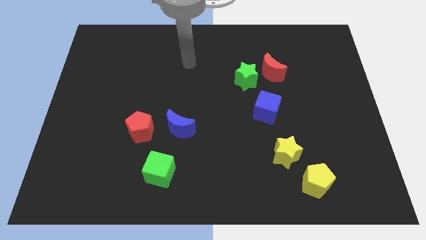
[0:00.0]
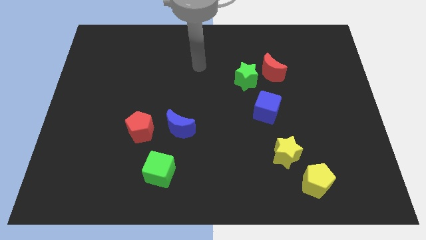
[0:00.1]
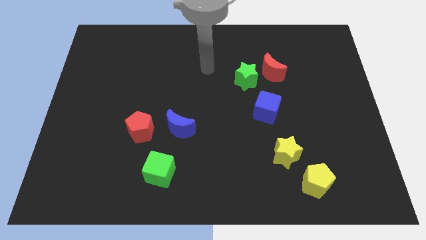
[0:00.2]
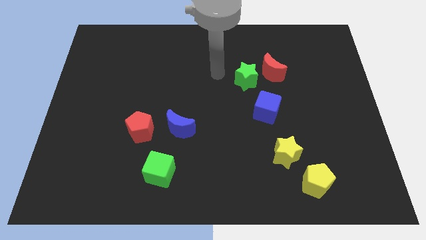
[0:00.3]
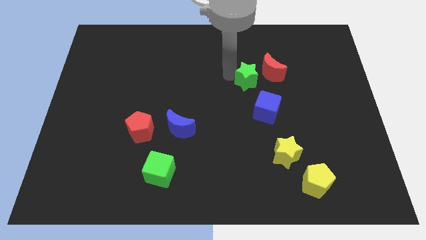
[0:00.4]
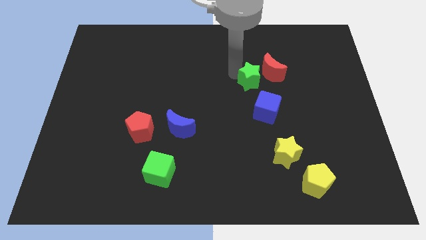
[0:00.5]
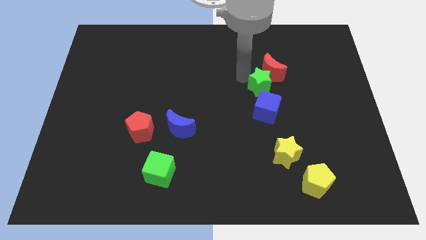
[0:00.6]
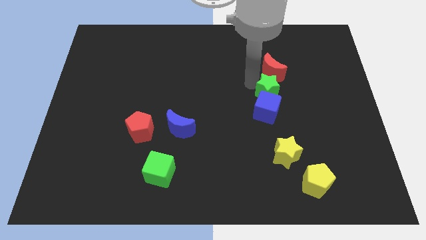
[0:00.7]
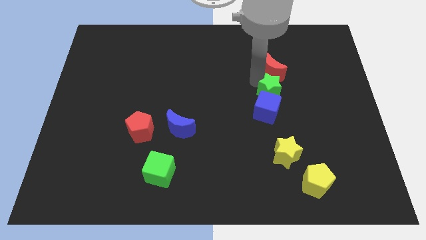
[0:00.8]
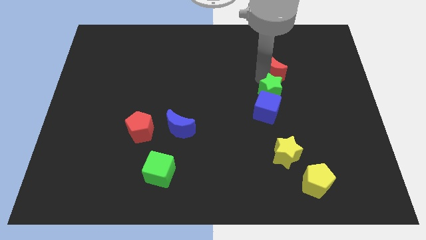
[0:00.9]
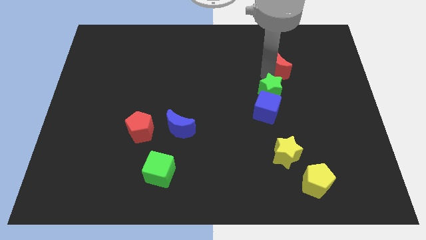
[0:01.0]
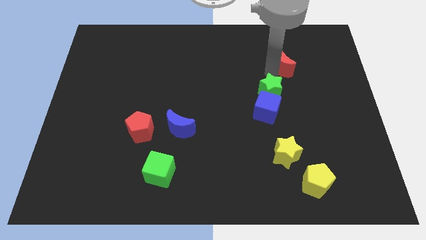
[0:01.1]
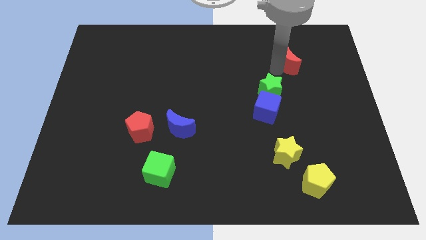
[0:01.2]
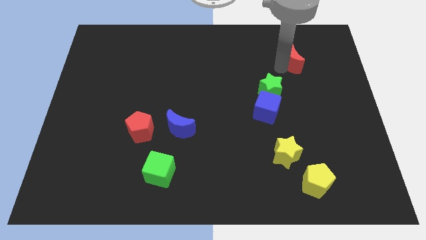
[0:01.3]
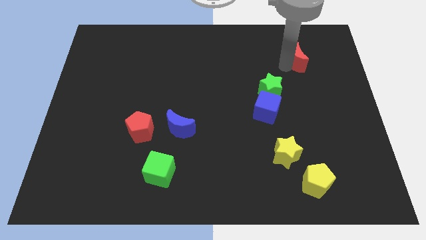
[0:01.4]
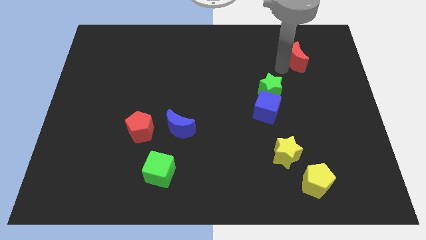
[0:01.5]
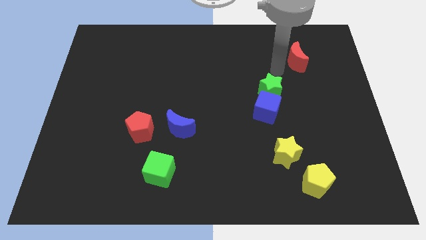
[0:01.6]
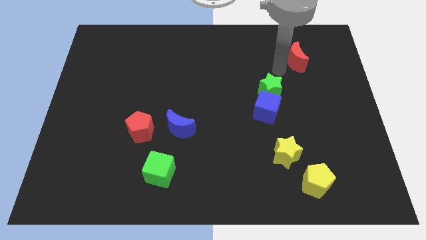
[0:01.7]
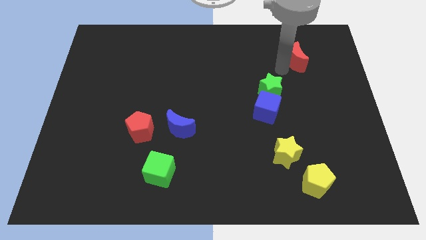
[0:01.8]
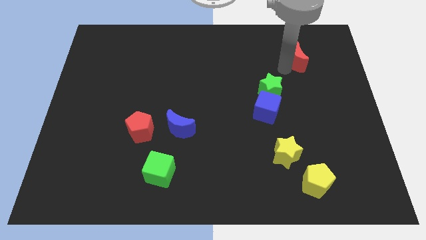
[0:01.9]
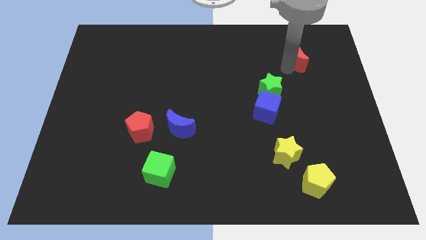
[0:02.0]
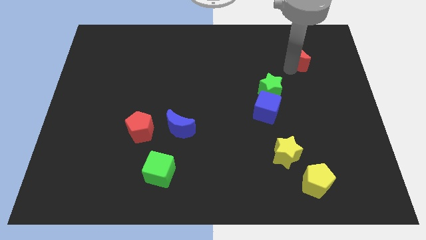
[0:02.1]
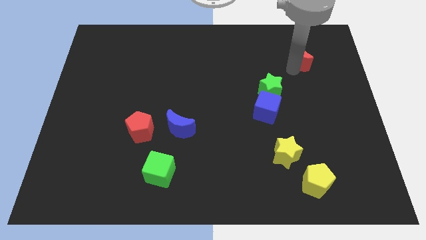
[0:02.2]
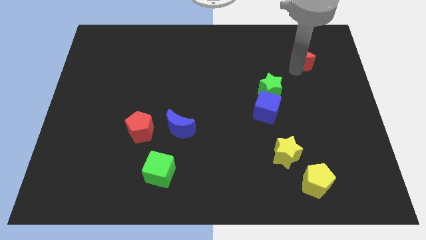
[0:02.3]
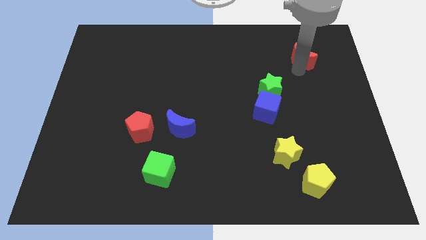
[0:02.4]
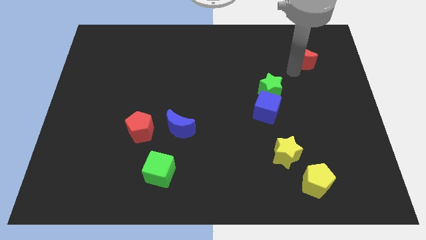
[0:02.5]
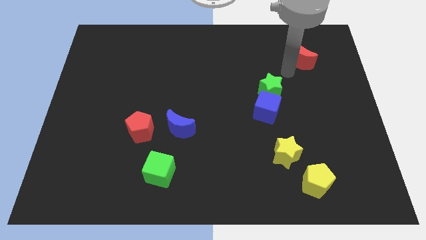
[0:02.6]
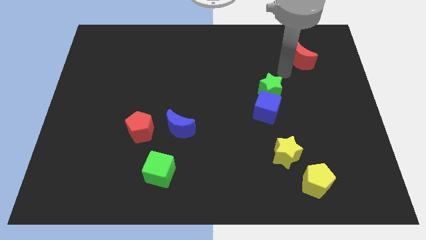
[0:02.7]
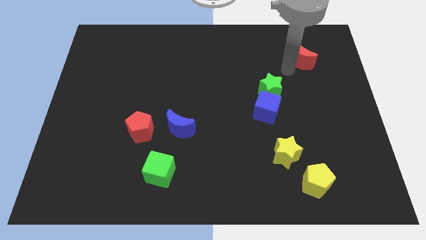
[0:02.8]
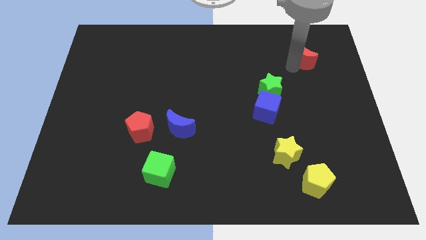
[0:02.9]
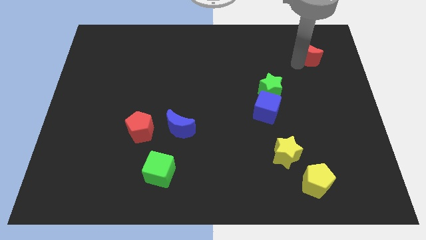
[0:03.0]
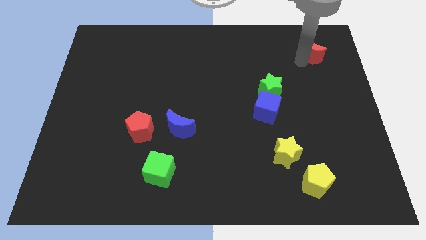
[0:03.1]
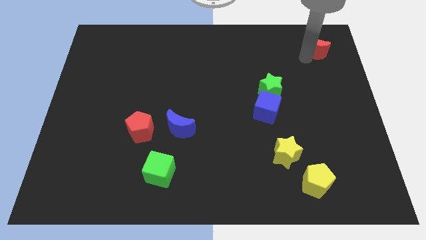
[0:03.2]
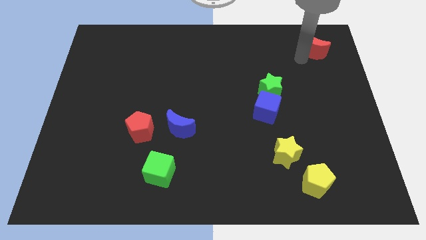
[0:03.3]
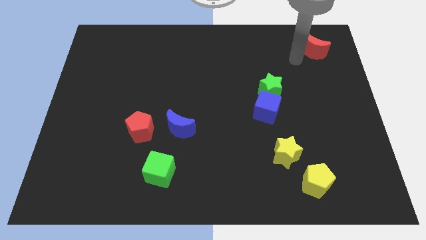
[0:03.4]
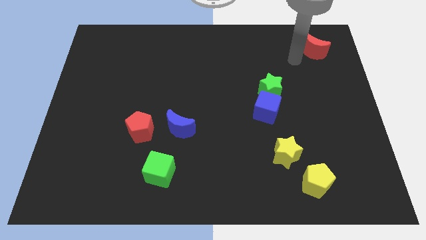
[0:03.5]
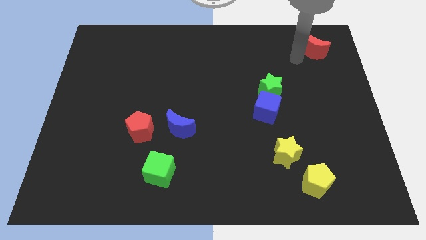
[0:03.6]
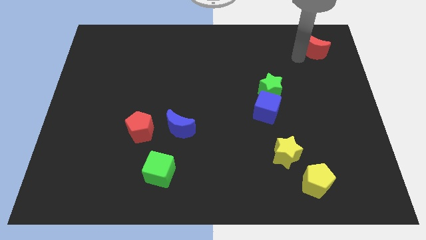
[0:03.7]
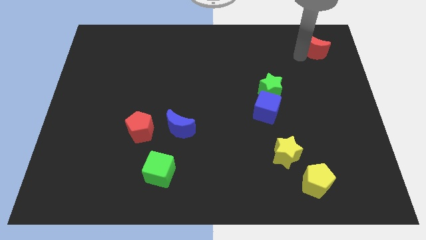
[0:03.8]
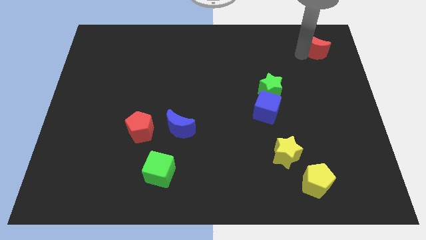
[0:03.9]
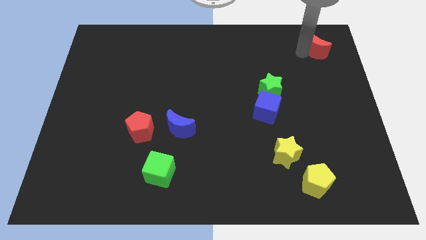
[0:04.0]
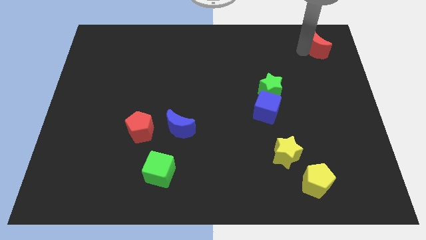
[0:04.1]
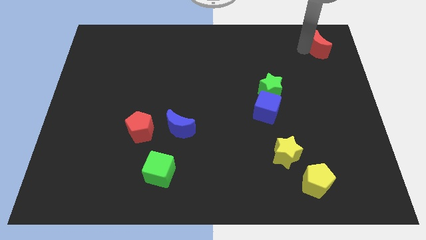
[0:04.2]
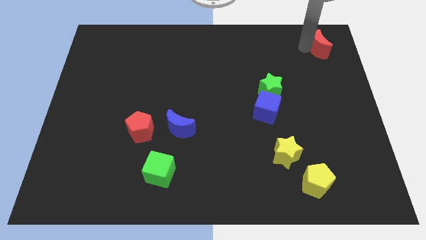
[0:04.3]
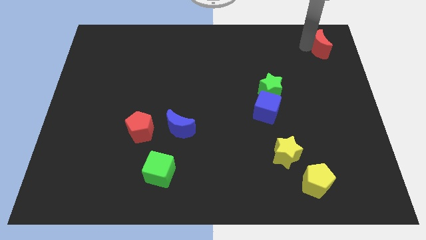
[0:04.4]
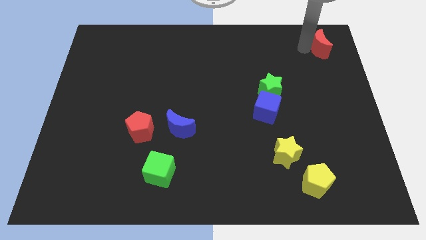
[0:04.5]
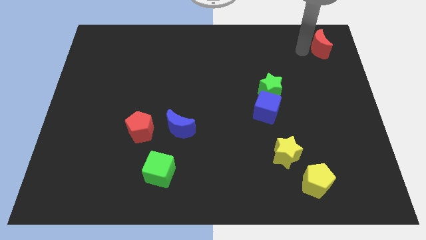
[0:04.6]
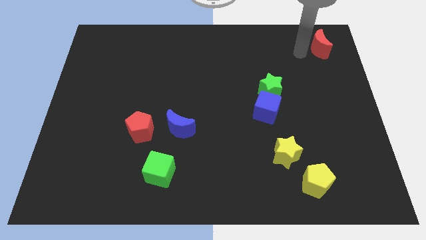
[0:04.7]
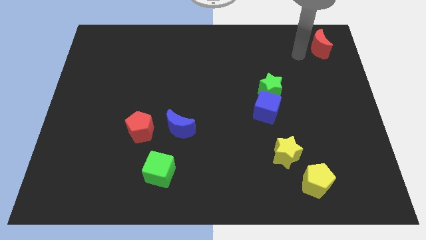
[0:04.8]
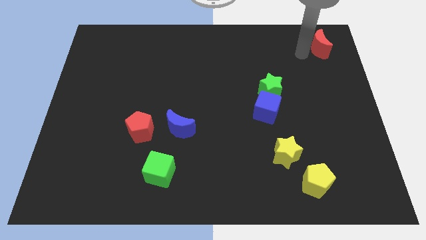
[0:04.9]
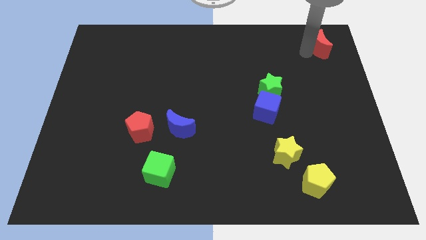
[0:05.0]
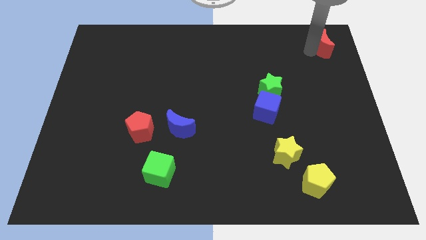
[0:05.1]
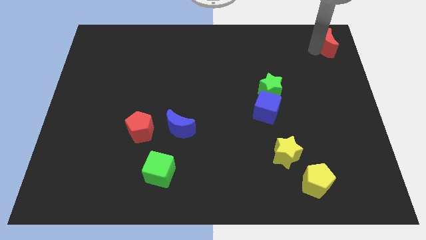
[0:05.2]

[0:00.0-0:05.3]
move the red moon to the upper right corner

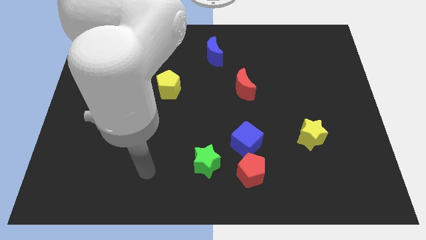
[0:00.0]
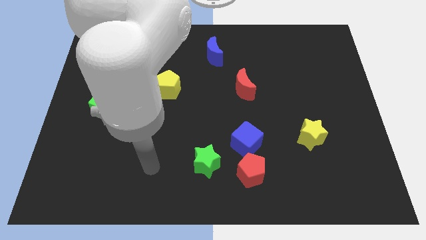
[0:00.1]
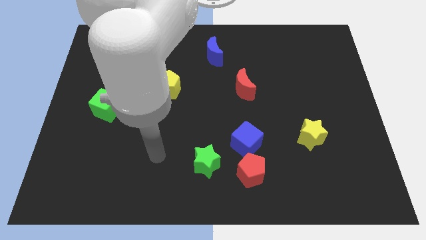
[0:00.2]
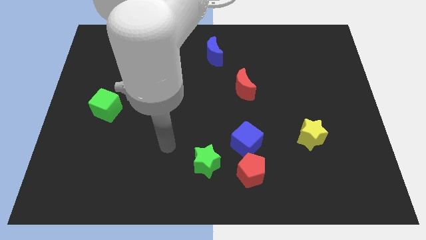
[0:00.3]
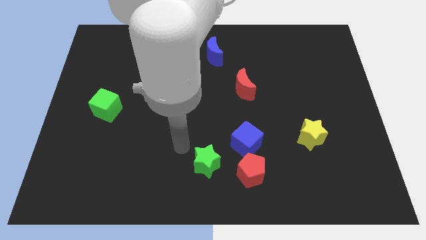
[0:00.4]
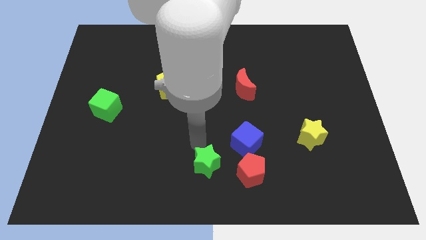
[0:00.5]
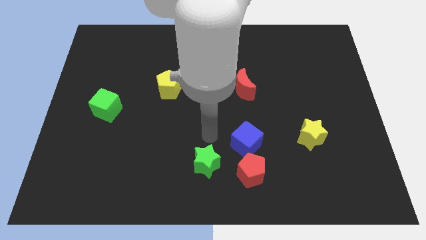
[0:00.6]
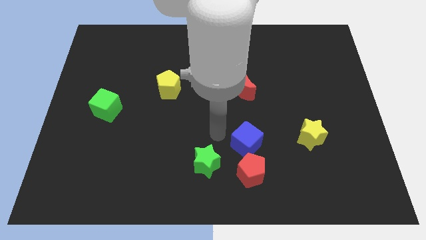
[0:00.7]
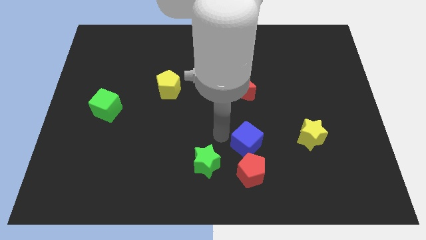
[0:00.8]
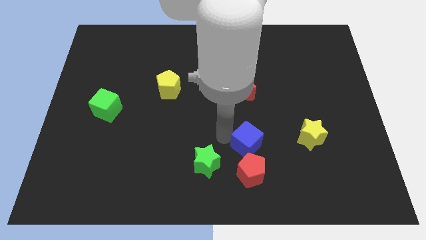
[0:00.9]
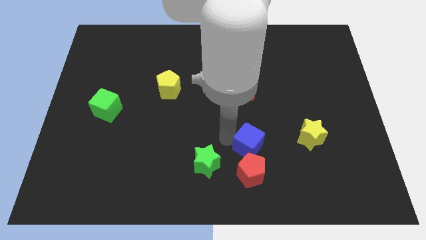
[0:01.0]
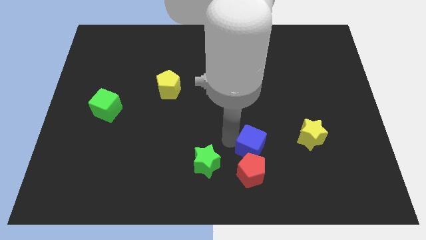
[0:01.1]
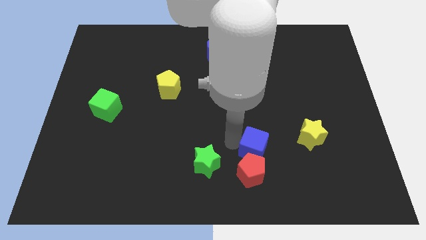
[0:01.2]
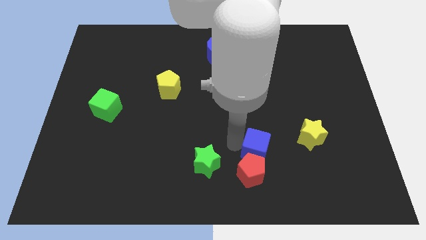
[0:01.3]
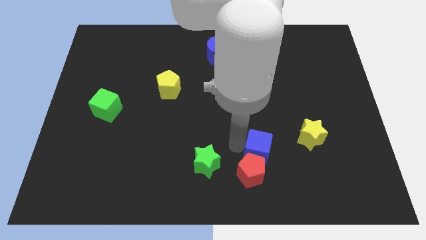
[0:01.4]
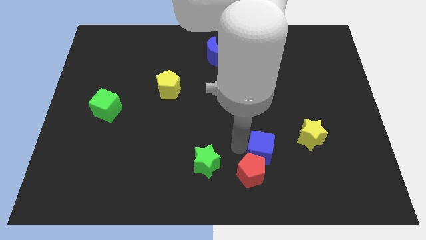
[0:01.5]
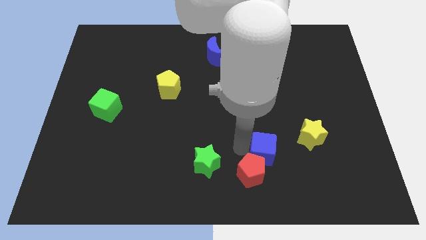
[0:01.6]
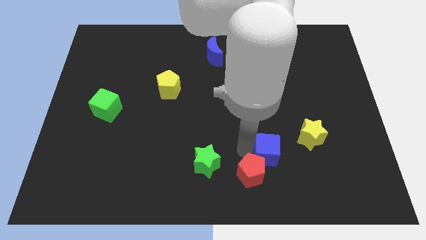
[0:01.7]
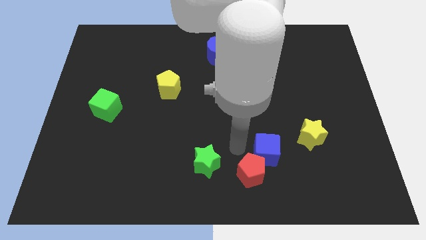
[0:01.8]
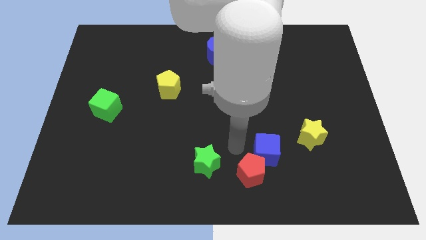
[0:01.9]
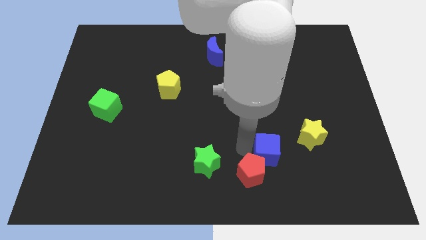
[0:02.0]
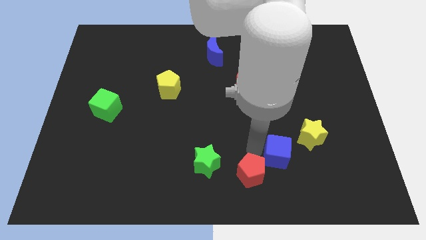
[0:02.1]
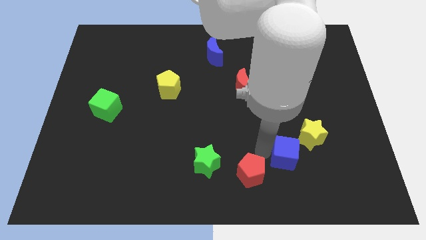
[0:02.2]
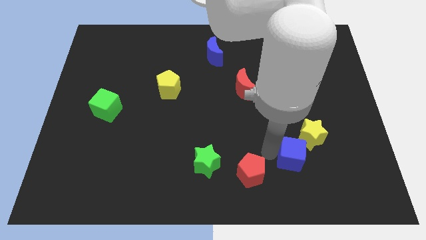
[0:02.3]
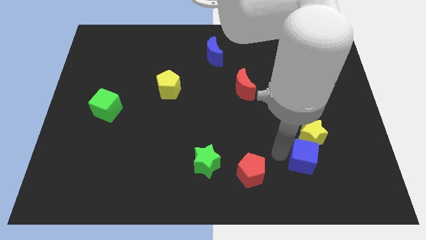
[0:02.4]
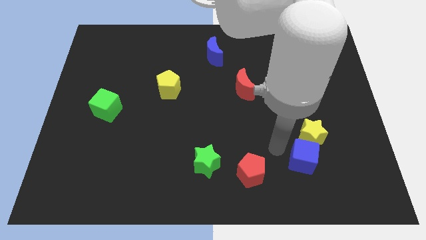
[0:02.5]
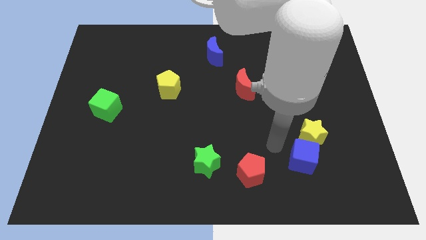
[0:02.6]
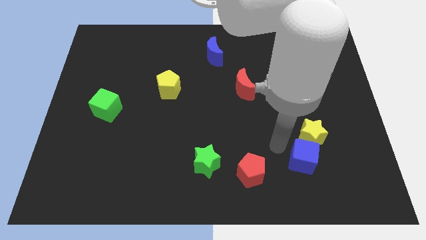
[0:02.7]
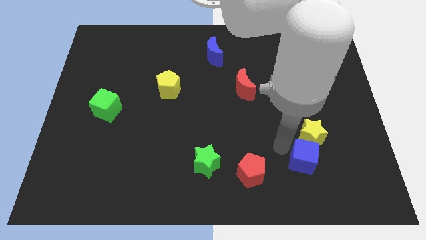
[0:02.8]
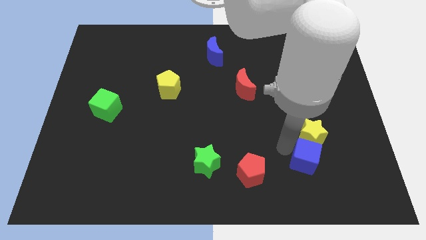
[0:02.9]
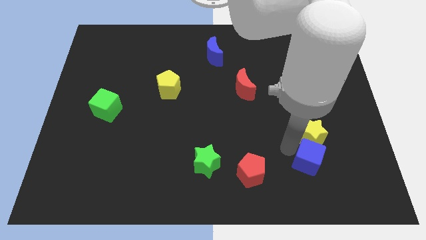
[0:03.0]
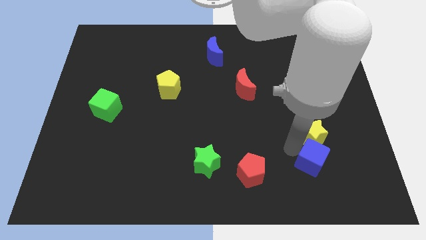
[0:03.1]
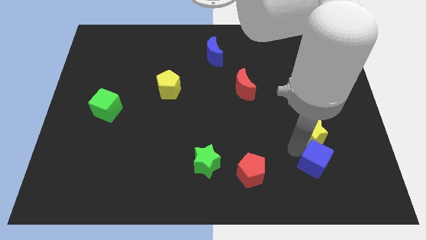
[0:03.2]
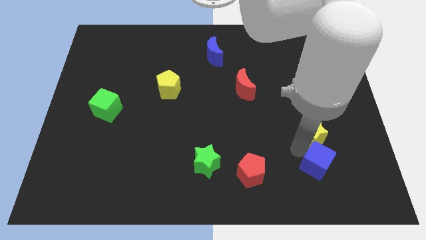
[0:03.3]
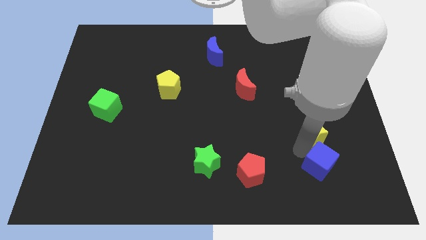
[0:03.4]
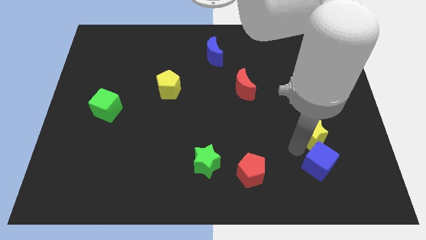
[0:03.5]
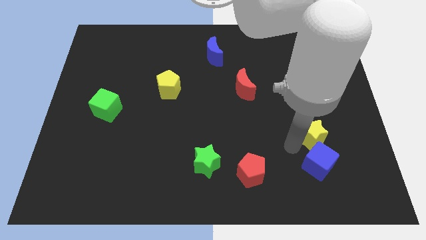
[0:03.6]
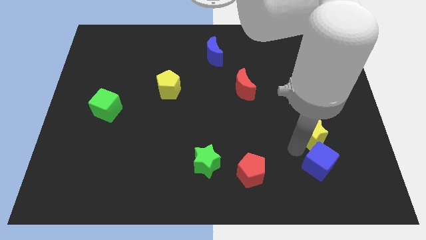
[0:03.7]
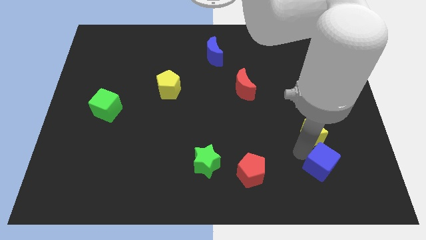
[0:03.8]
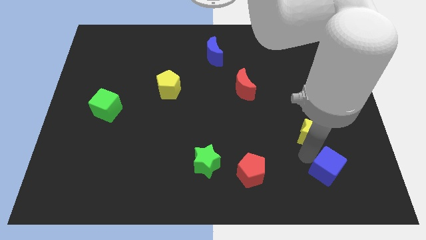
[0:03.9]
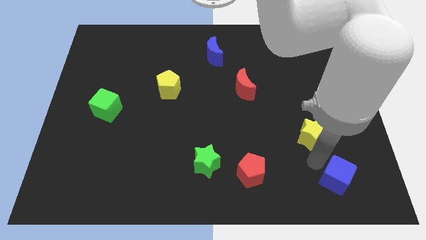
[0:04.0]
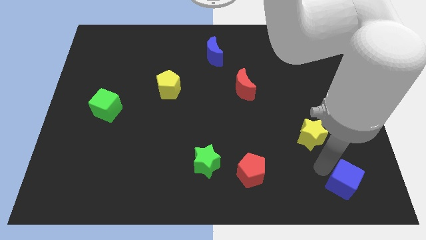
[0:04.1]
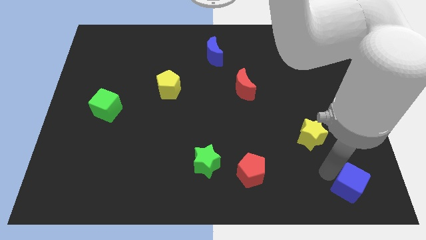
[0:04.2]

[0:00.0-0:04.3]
push the blue cube to the bottom right
